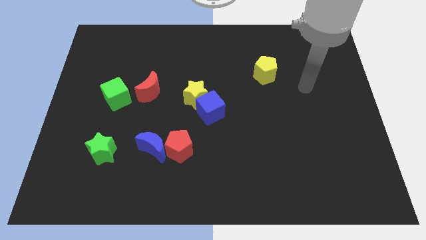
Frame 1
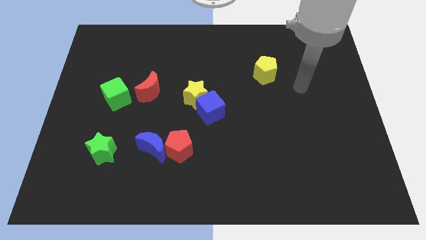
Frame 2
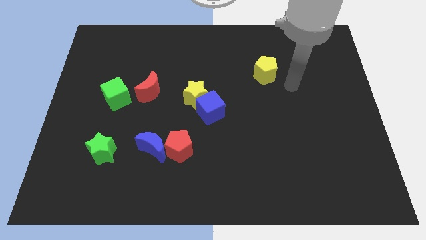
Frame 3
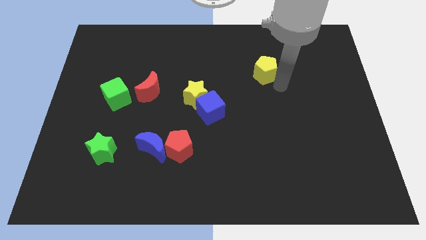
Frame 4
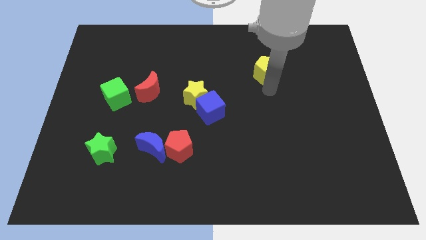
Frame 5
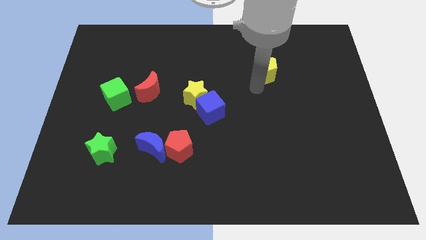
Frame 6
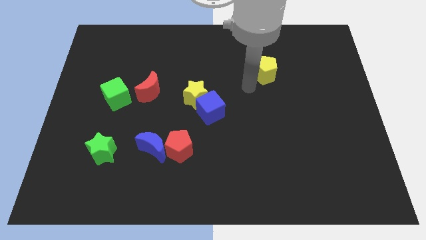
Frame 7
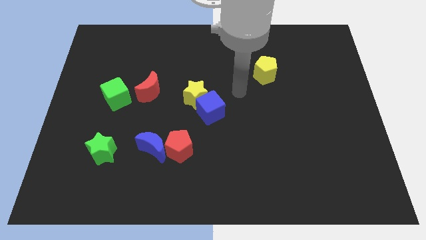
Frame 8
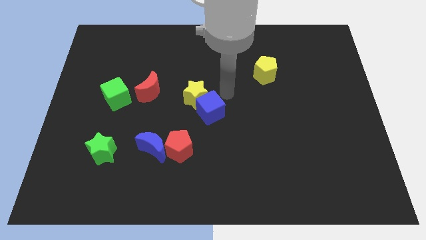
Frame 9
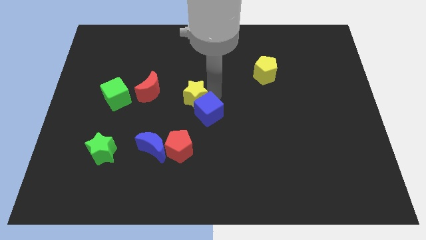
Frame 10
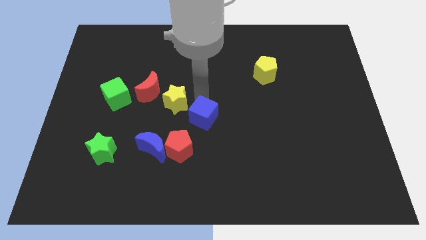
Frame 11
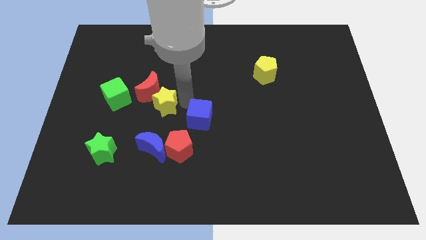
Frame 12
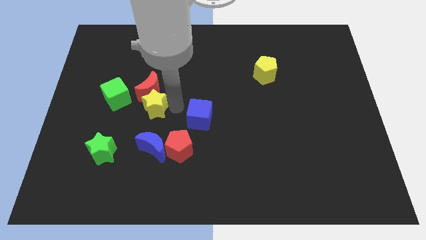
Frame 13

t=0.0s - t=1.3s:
move the blue cube away from the yellow star

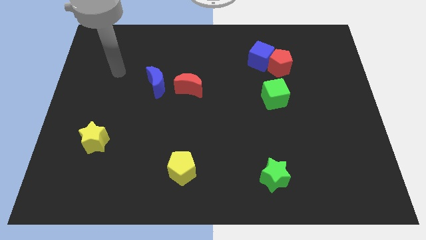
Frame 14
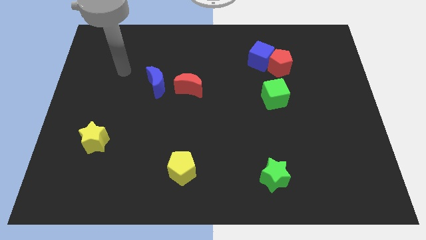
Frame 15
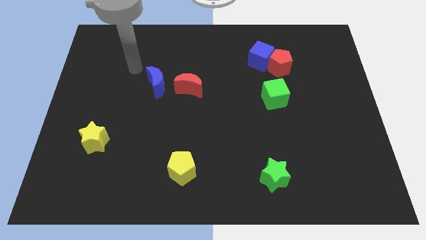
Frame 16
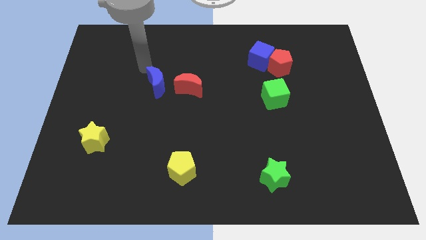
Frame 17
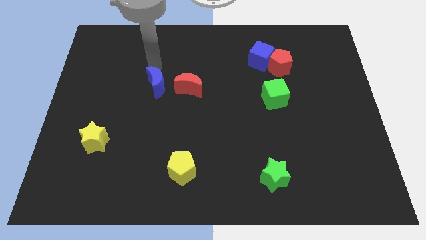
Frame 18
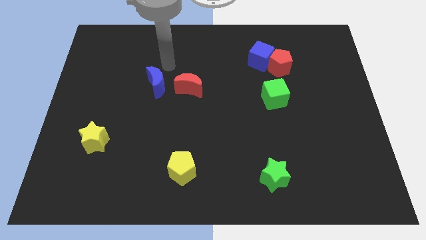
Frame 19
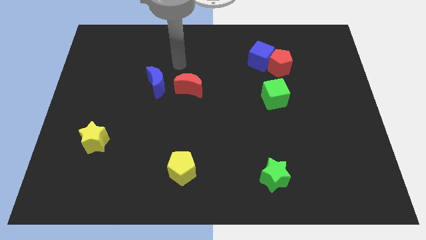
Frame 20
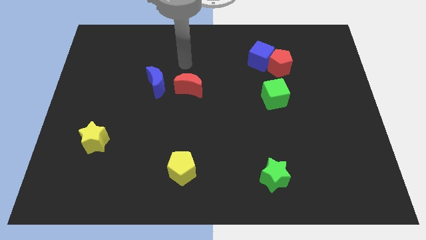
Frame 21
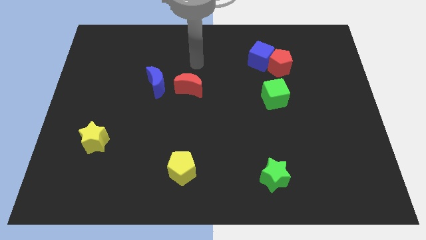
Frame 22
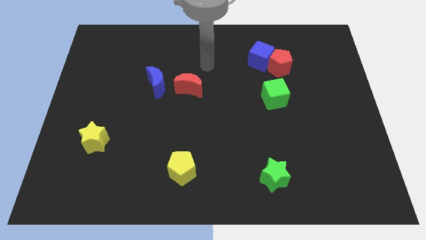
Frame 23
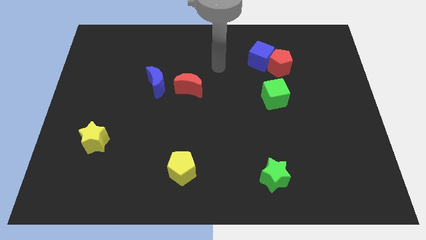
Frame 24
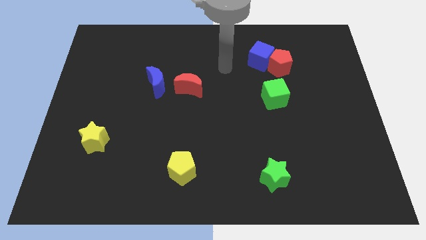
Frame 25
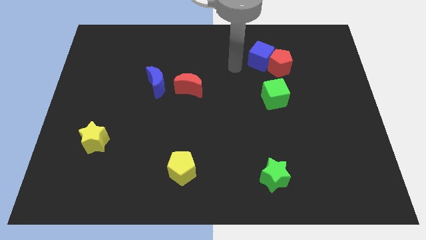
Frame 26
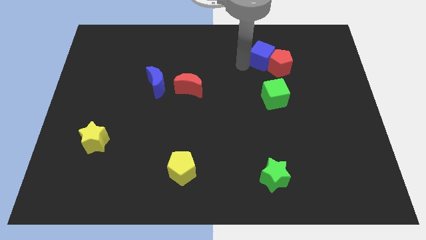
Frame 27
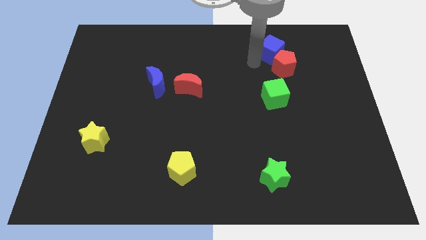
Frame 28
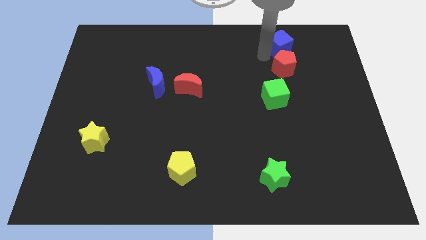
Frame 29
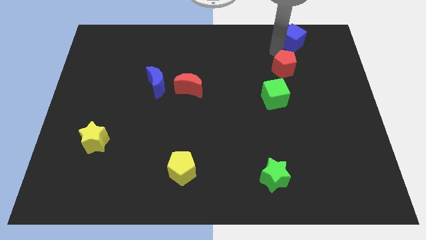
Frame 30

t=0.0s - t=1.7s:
separate the red pentagon from the blue cube

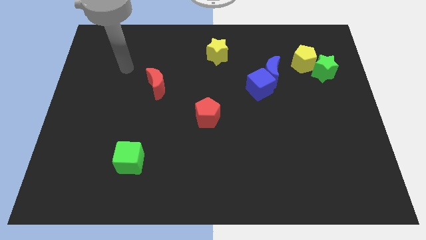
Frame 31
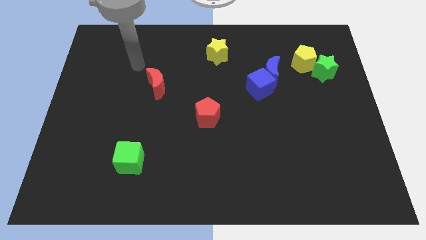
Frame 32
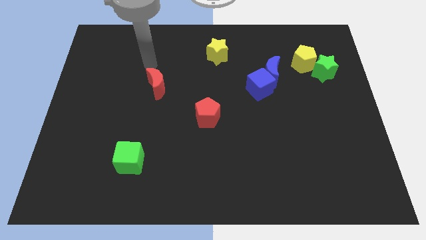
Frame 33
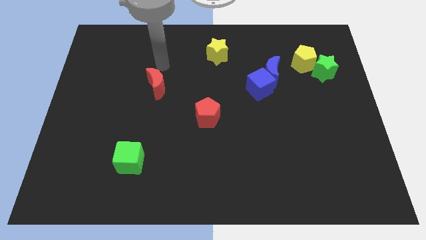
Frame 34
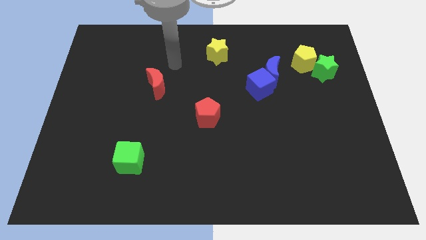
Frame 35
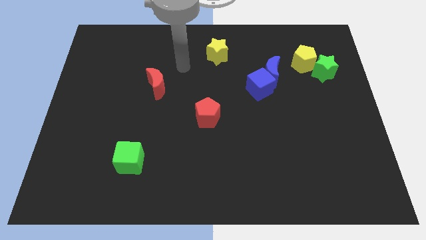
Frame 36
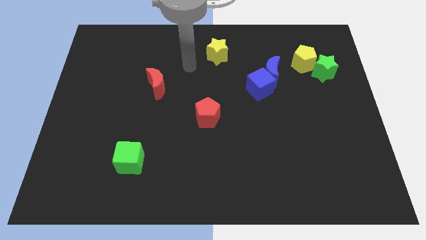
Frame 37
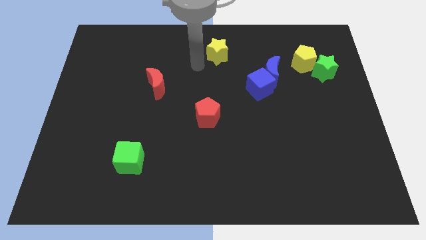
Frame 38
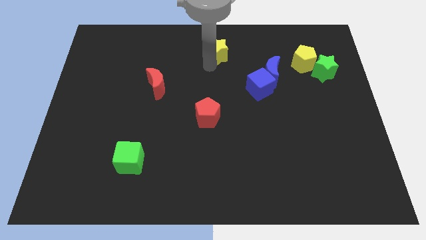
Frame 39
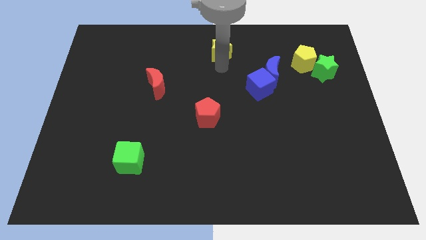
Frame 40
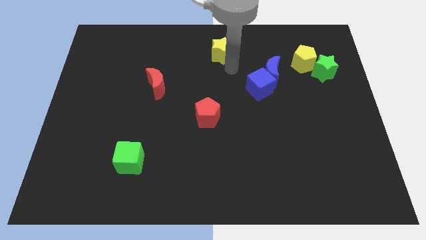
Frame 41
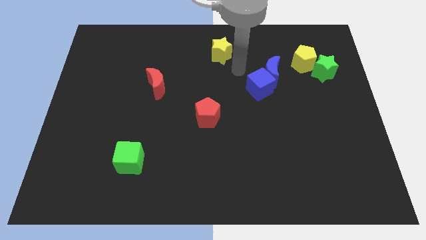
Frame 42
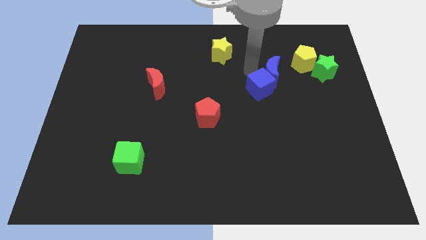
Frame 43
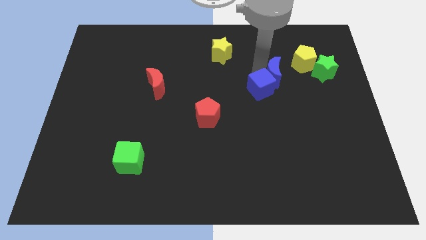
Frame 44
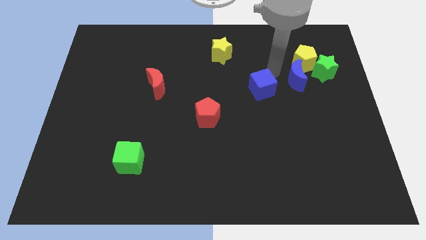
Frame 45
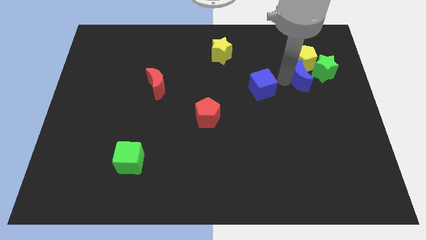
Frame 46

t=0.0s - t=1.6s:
pull the blue cube apart from the blue moon

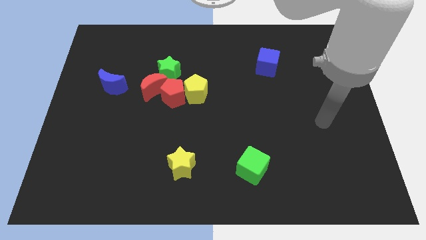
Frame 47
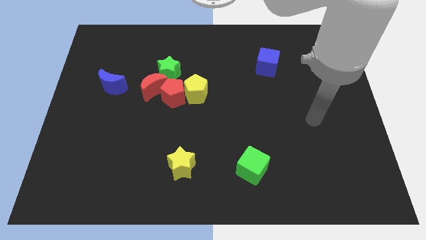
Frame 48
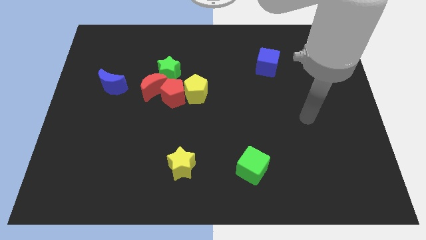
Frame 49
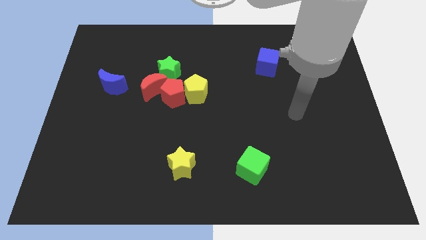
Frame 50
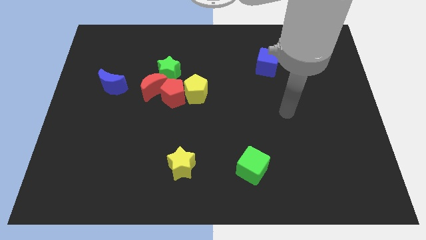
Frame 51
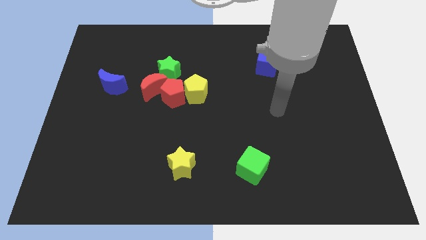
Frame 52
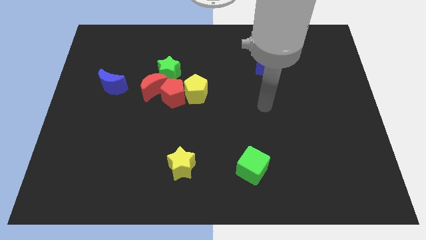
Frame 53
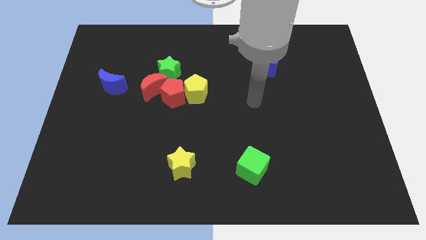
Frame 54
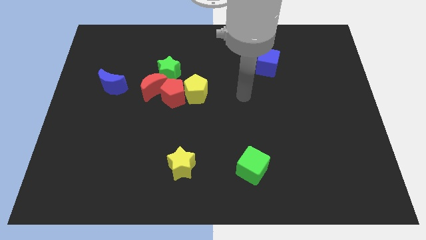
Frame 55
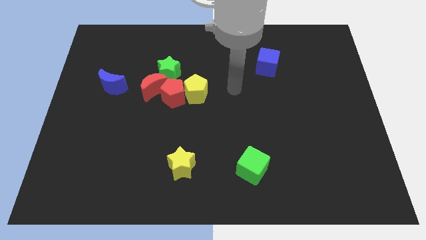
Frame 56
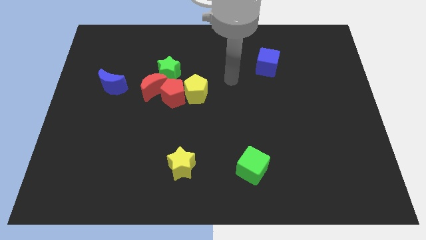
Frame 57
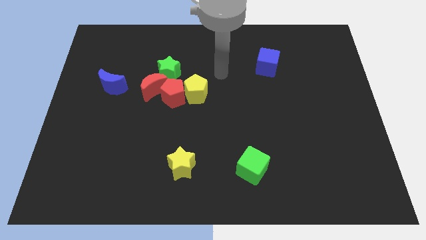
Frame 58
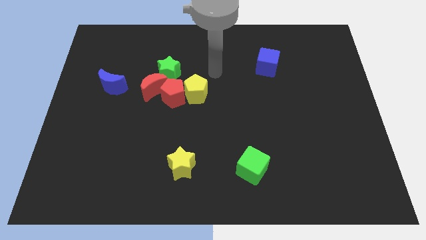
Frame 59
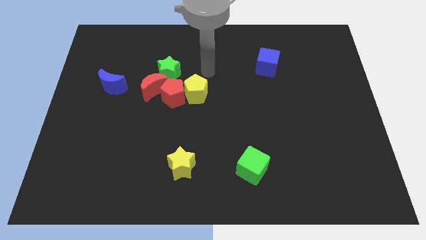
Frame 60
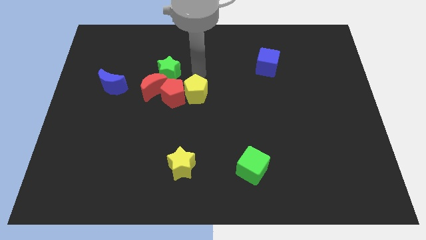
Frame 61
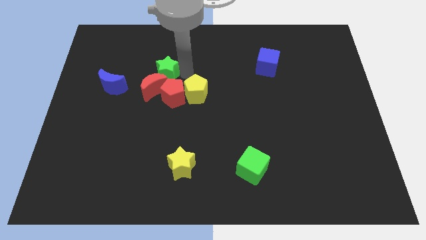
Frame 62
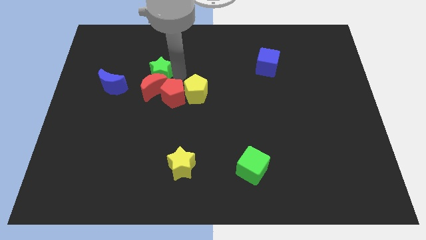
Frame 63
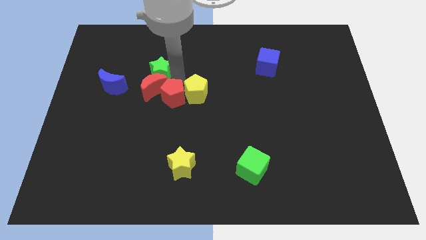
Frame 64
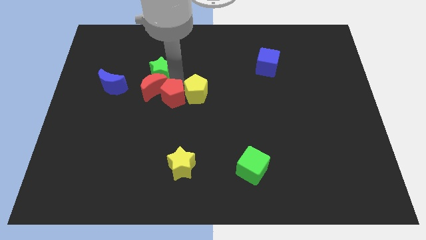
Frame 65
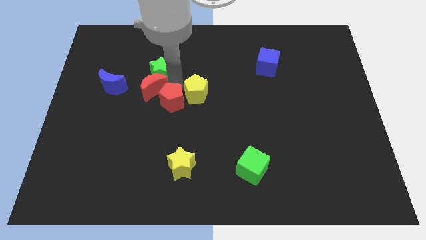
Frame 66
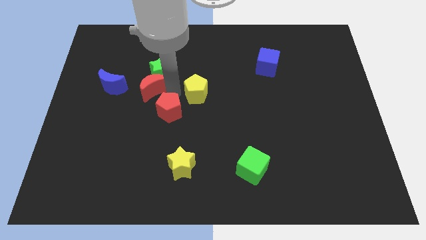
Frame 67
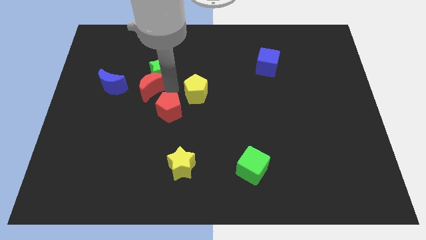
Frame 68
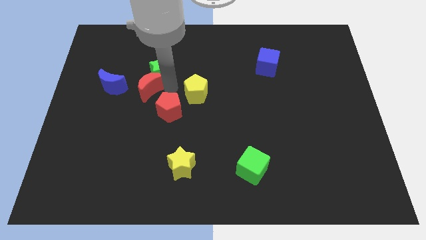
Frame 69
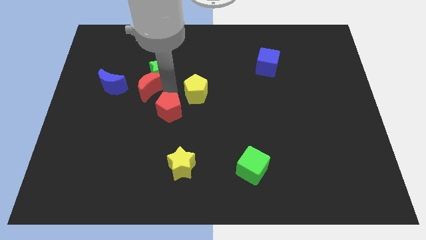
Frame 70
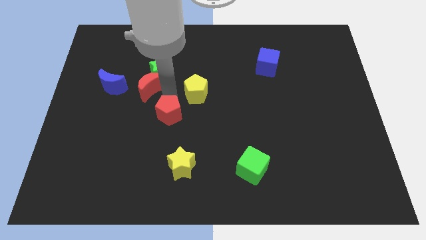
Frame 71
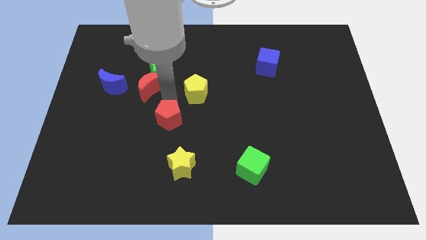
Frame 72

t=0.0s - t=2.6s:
pull the red pentagon apart from the yellow pentagon, red moon, and green star

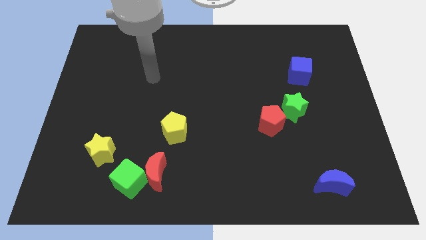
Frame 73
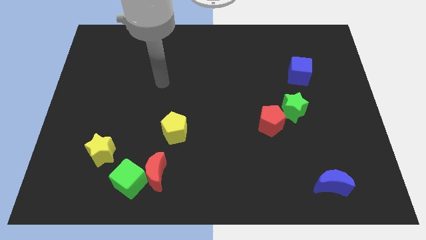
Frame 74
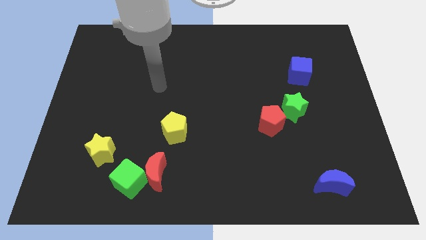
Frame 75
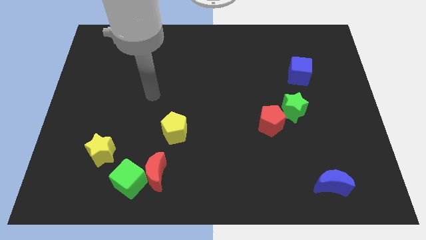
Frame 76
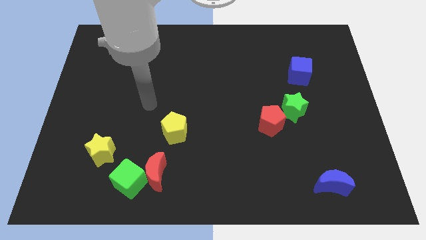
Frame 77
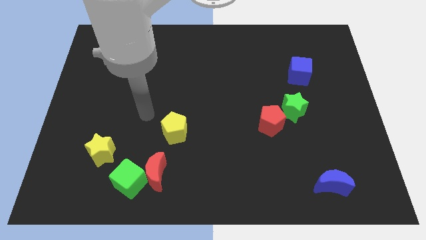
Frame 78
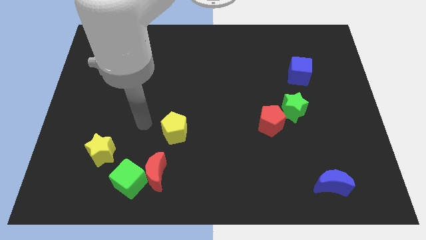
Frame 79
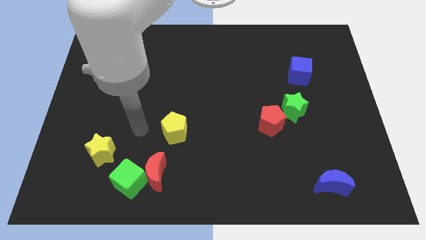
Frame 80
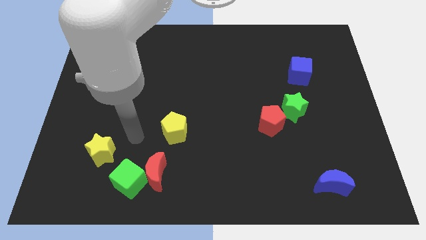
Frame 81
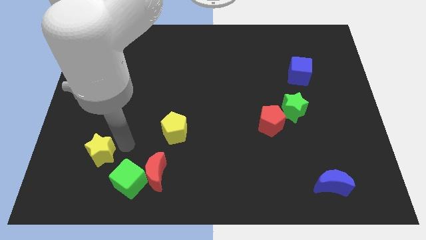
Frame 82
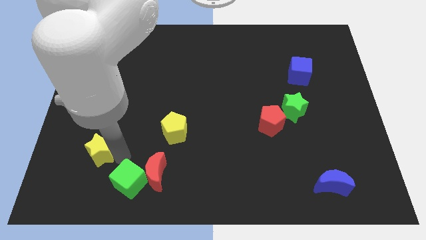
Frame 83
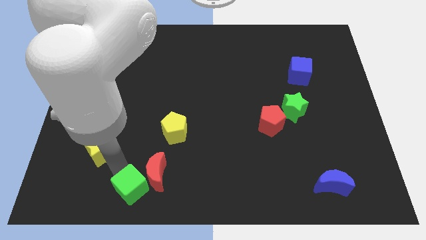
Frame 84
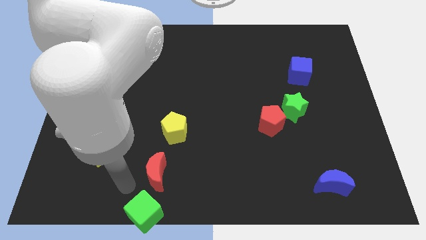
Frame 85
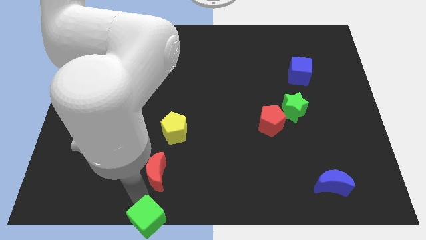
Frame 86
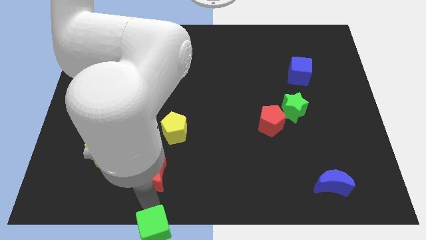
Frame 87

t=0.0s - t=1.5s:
move the red moon away from the green cube

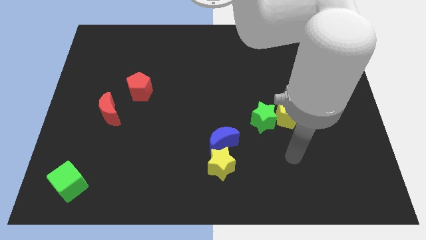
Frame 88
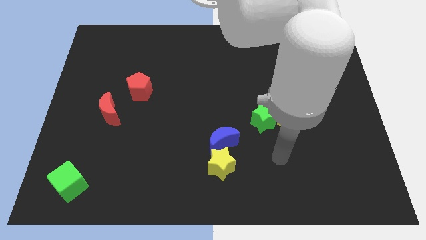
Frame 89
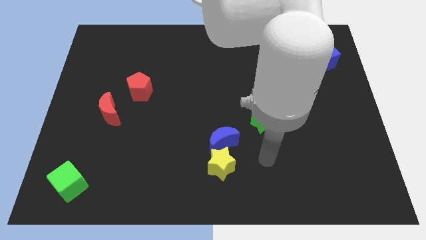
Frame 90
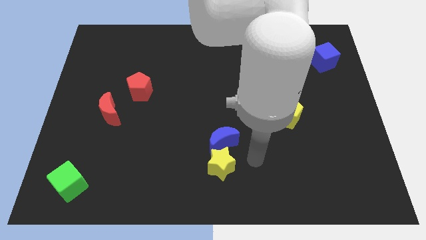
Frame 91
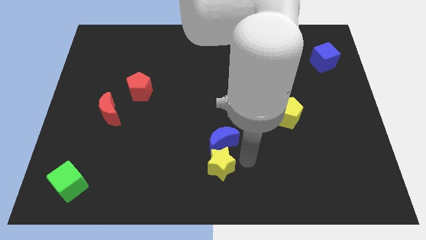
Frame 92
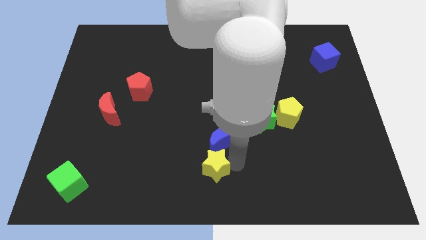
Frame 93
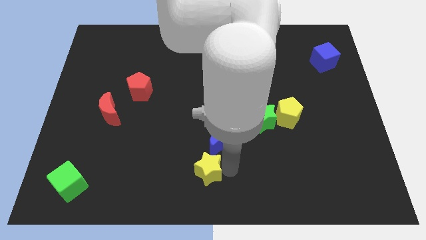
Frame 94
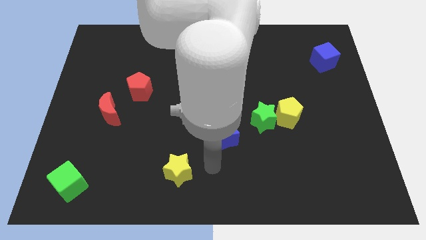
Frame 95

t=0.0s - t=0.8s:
pull the blue moon apart from the yellow star
